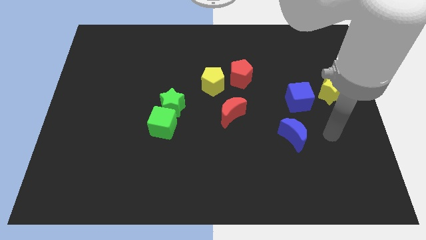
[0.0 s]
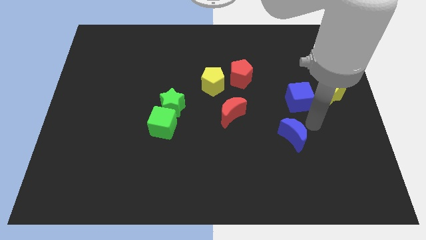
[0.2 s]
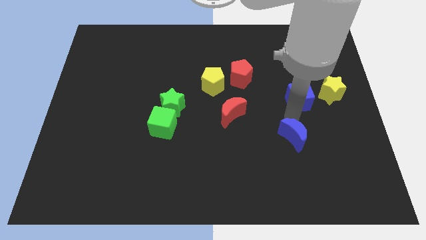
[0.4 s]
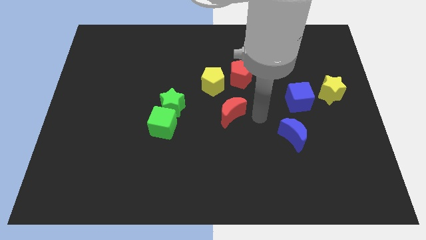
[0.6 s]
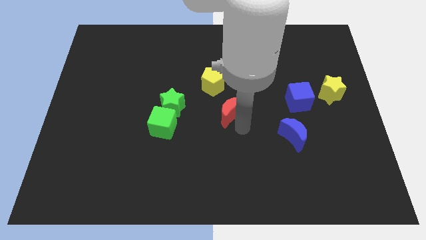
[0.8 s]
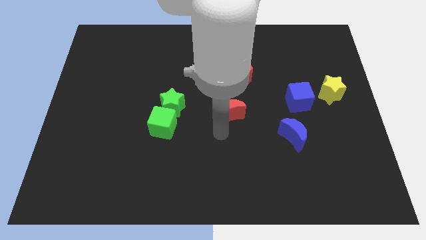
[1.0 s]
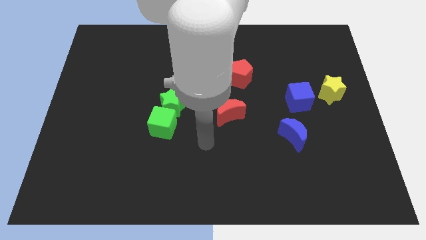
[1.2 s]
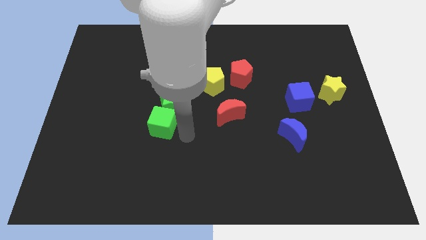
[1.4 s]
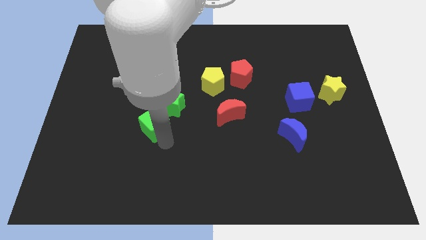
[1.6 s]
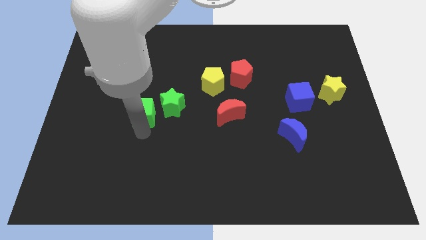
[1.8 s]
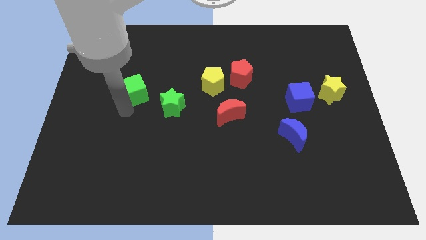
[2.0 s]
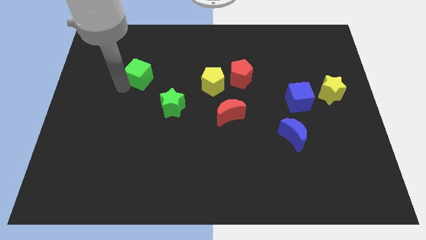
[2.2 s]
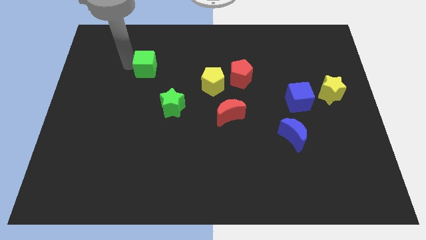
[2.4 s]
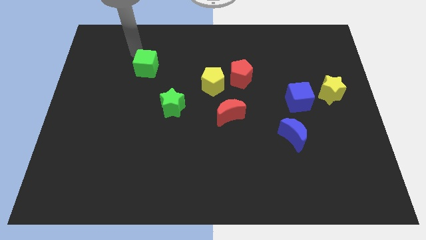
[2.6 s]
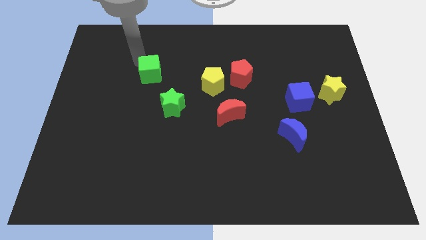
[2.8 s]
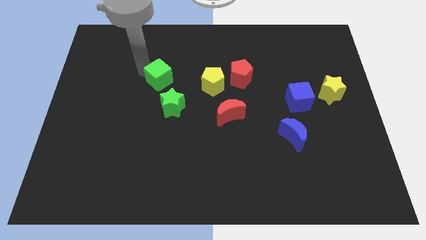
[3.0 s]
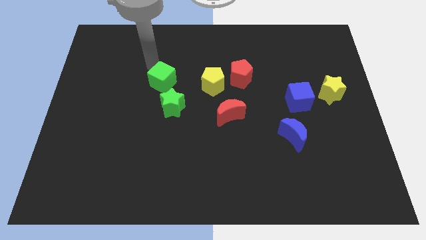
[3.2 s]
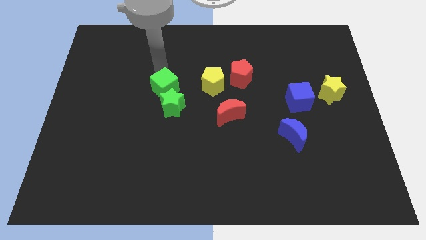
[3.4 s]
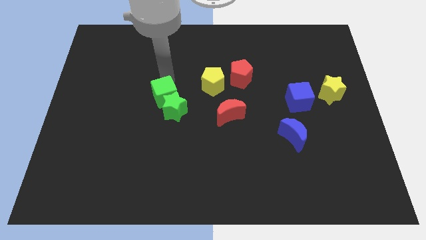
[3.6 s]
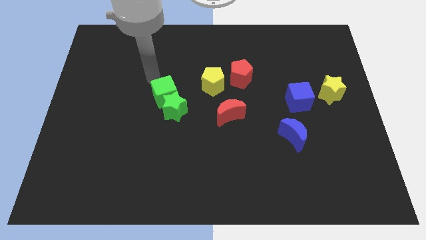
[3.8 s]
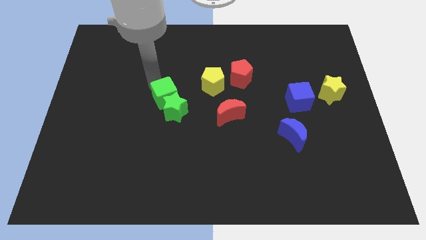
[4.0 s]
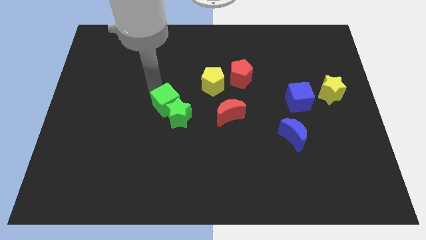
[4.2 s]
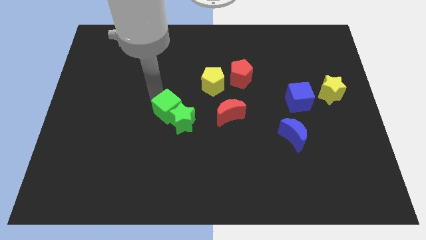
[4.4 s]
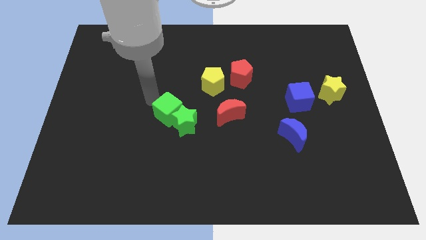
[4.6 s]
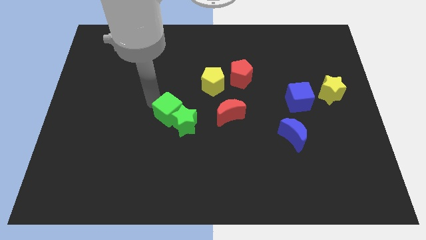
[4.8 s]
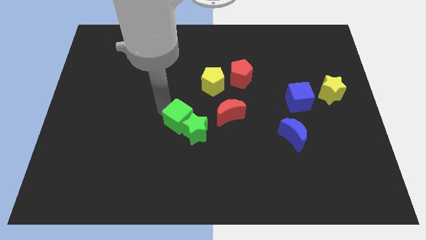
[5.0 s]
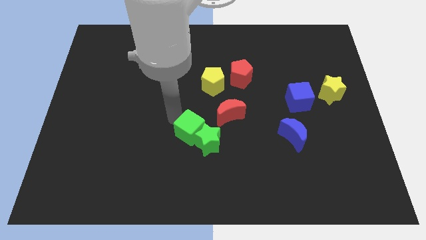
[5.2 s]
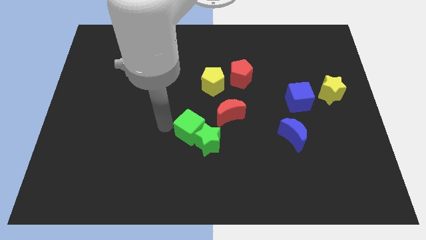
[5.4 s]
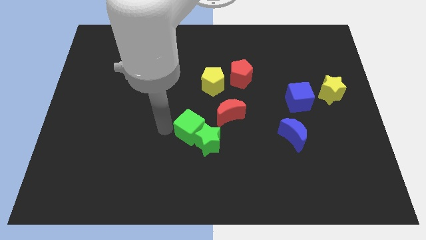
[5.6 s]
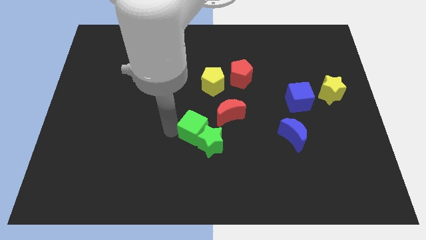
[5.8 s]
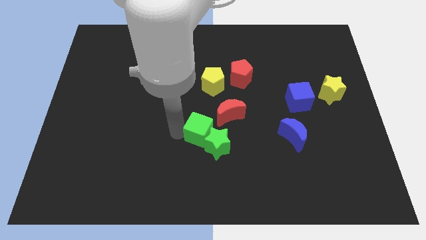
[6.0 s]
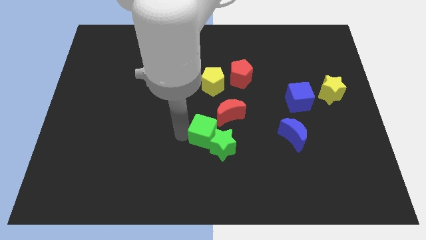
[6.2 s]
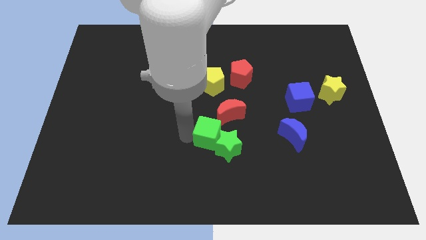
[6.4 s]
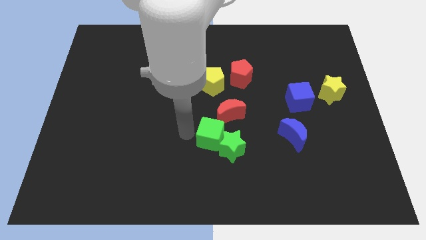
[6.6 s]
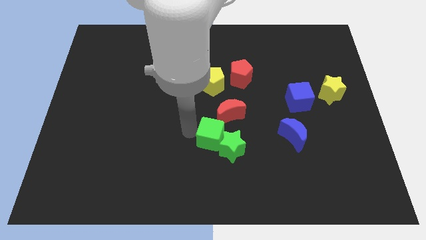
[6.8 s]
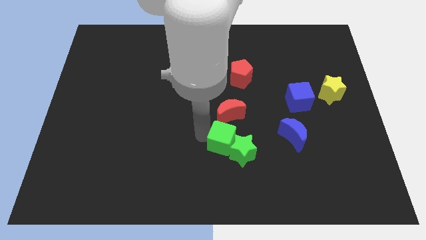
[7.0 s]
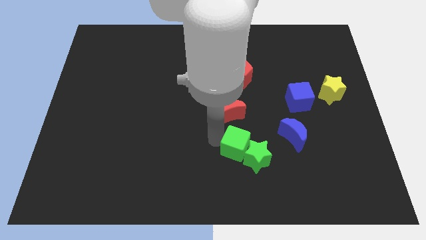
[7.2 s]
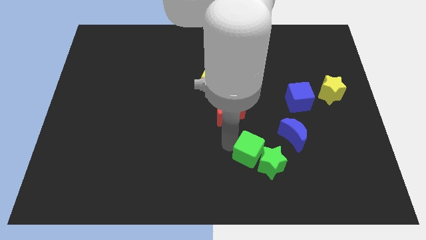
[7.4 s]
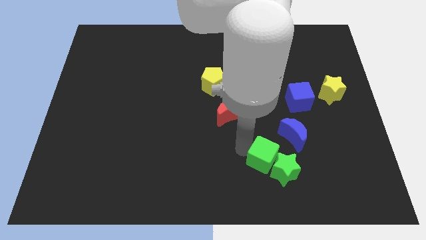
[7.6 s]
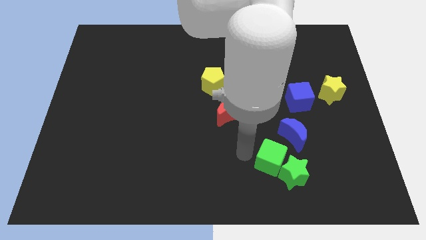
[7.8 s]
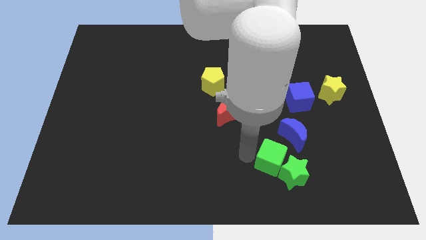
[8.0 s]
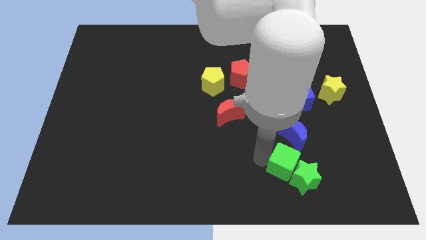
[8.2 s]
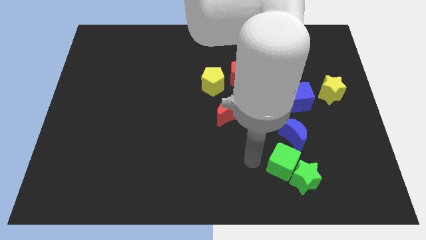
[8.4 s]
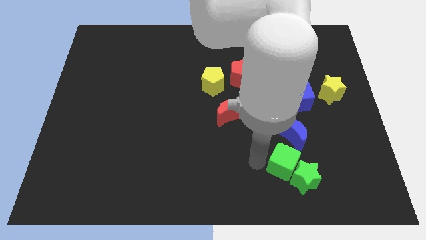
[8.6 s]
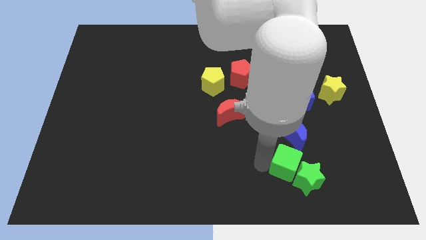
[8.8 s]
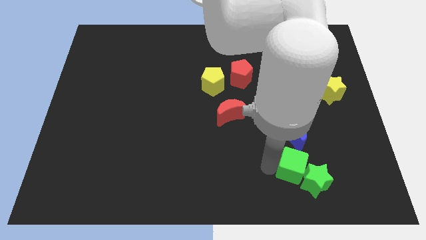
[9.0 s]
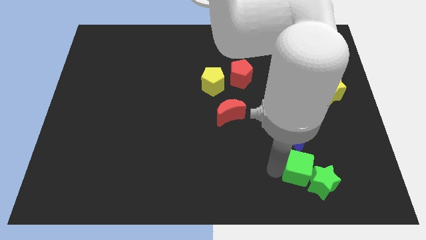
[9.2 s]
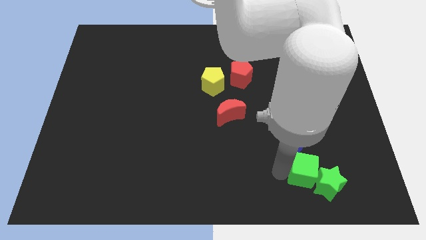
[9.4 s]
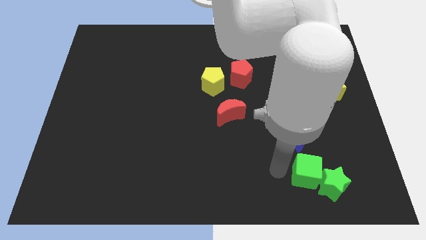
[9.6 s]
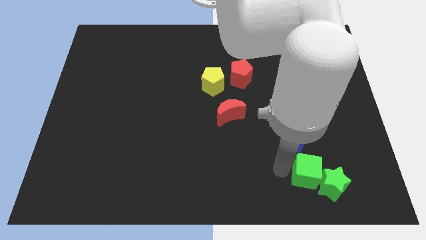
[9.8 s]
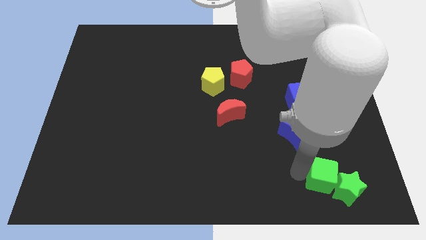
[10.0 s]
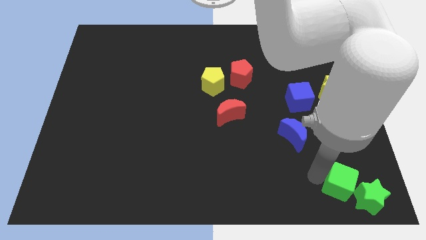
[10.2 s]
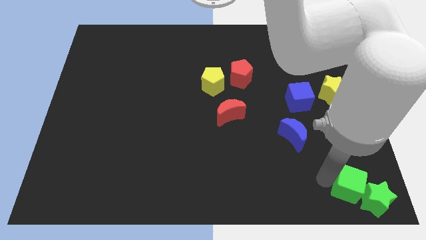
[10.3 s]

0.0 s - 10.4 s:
put the green cube to the lower right corner

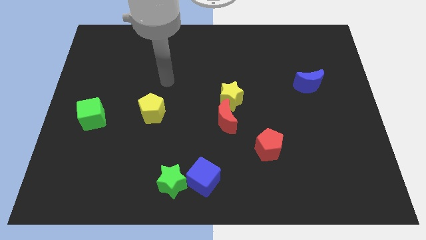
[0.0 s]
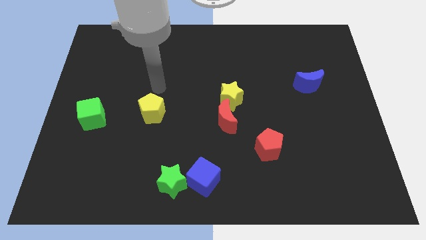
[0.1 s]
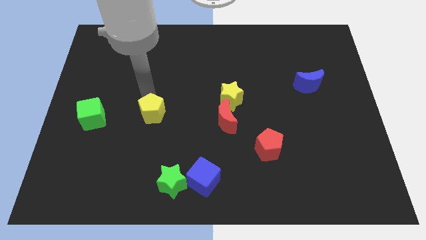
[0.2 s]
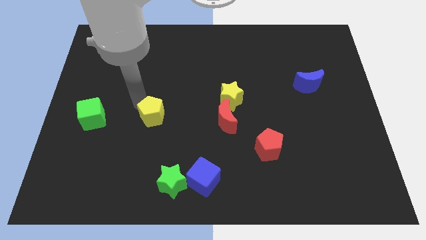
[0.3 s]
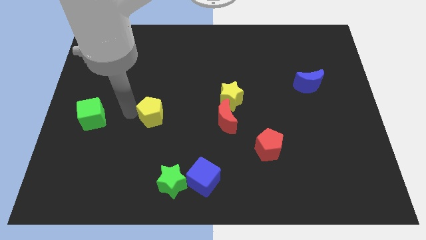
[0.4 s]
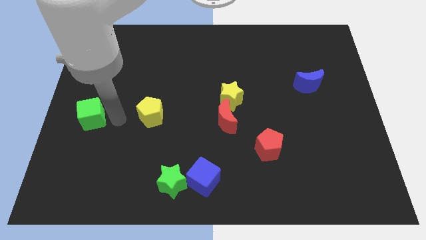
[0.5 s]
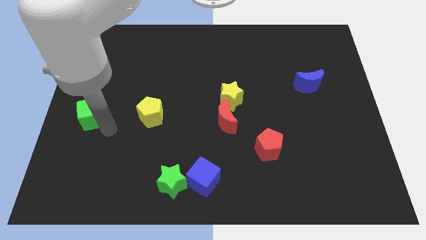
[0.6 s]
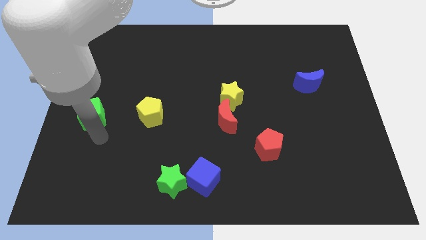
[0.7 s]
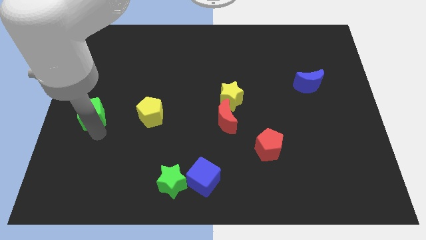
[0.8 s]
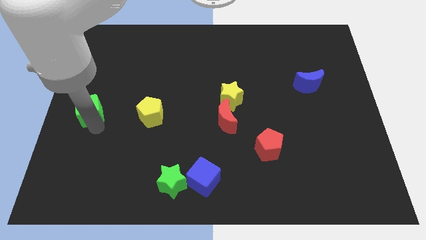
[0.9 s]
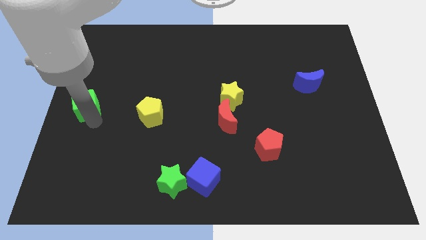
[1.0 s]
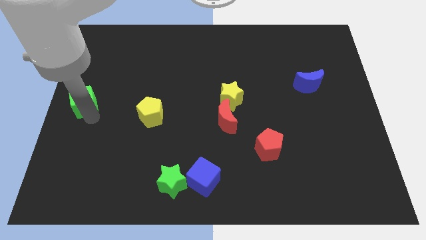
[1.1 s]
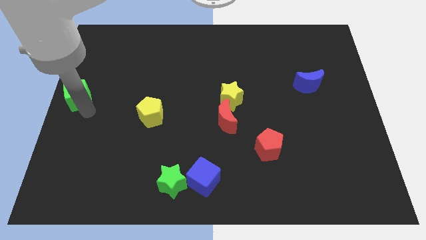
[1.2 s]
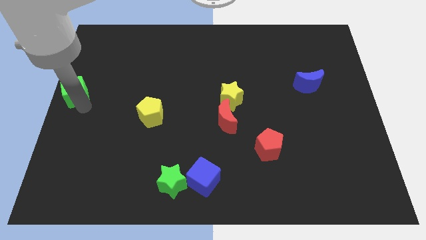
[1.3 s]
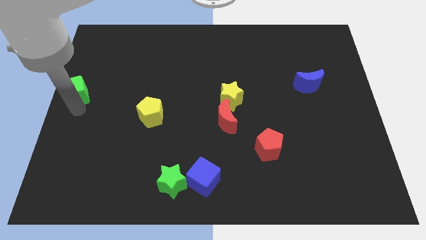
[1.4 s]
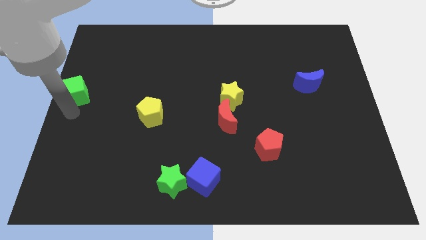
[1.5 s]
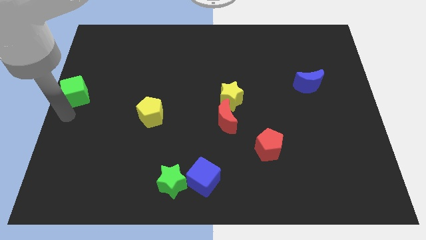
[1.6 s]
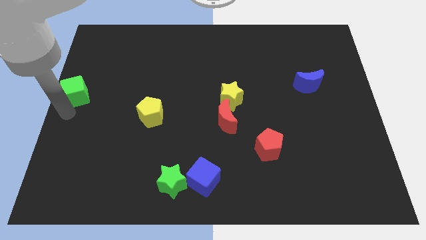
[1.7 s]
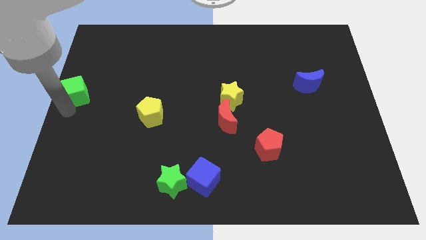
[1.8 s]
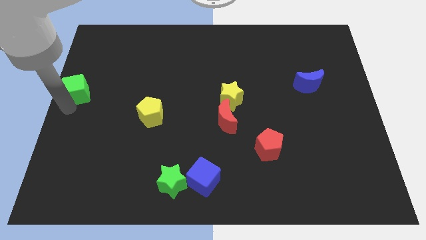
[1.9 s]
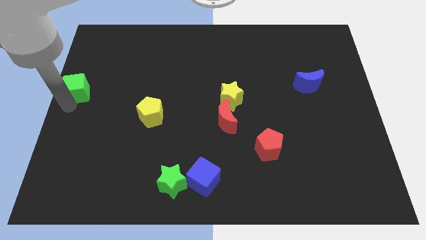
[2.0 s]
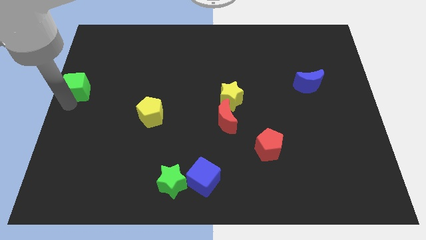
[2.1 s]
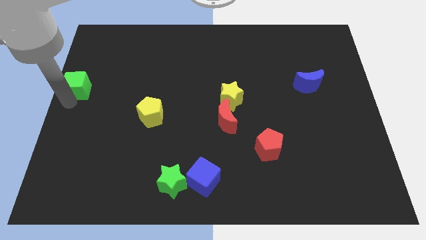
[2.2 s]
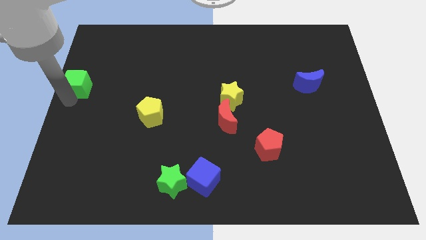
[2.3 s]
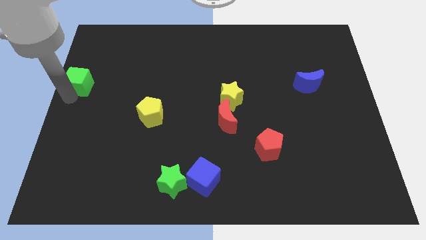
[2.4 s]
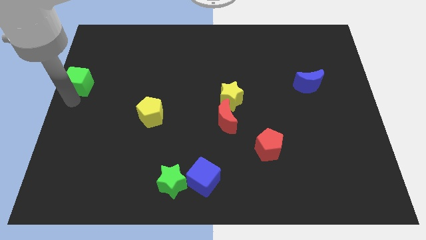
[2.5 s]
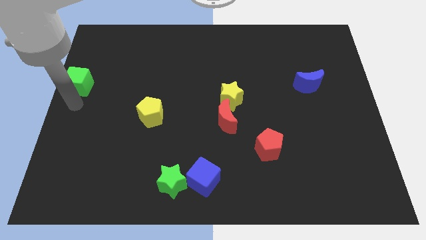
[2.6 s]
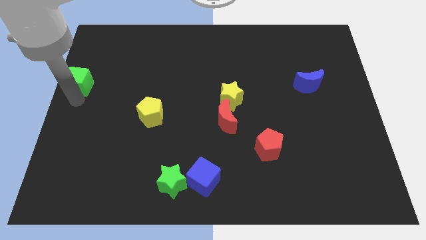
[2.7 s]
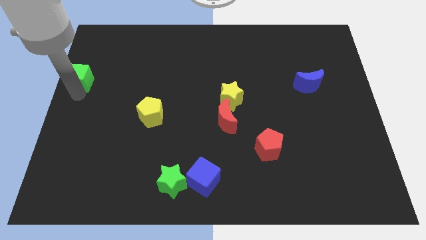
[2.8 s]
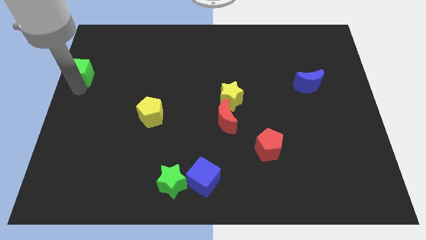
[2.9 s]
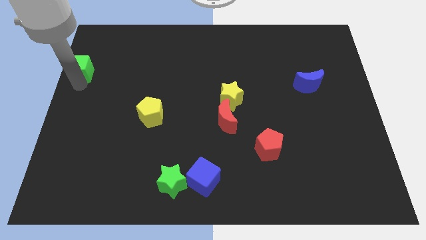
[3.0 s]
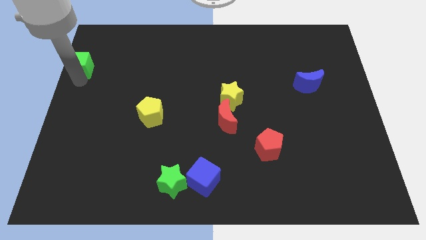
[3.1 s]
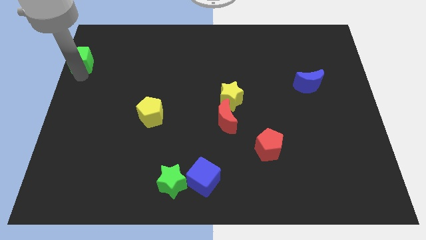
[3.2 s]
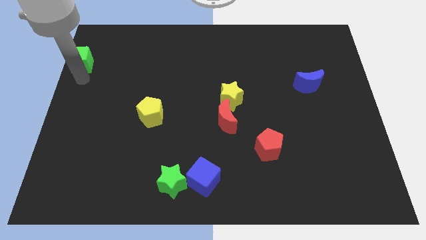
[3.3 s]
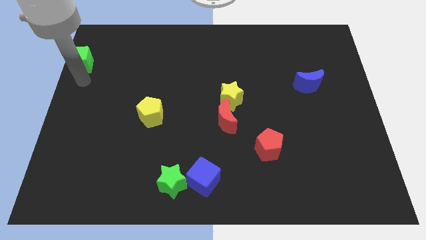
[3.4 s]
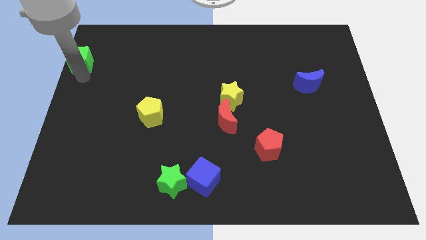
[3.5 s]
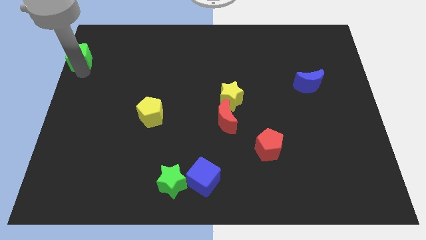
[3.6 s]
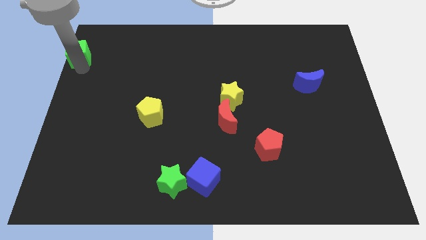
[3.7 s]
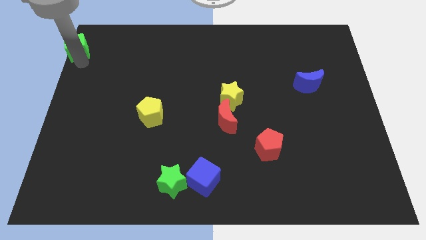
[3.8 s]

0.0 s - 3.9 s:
put the green cube to the top left
